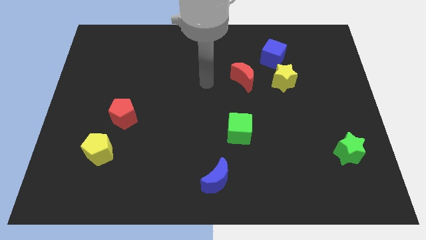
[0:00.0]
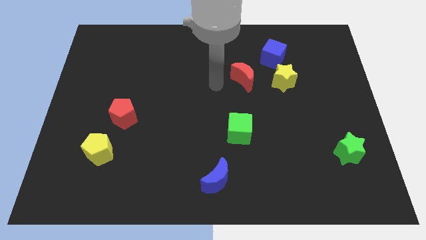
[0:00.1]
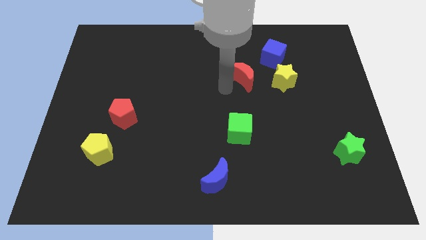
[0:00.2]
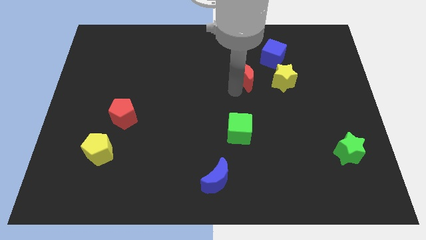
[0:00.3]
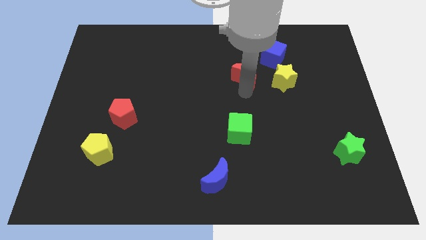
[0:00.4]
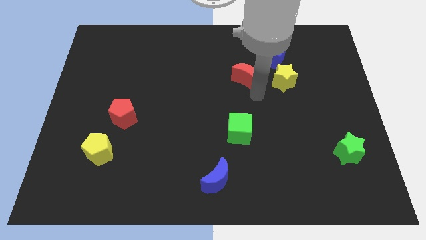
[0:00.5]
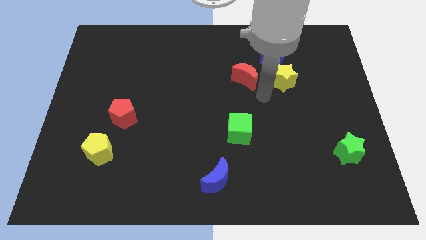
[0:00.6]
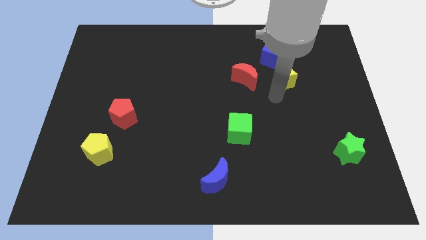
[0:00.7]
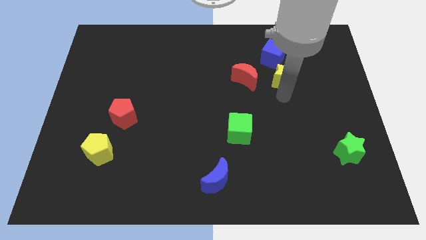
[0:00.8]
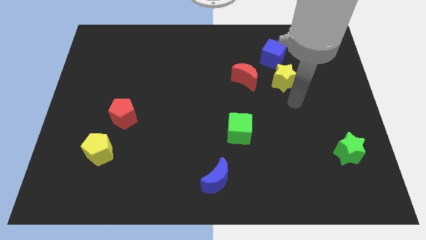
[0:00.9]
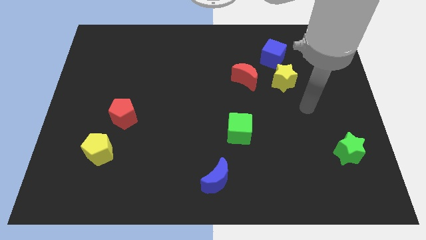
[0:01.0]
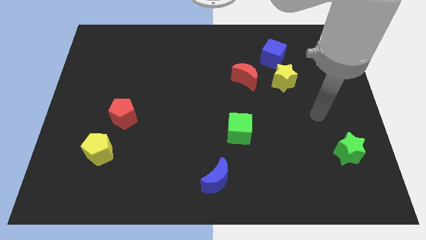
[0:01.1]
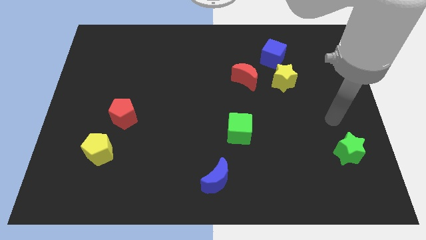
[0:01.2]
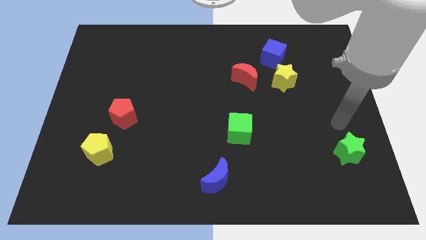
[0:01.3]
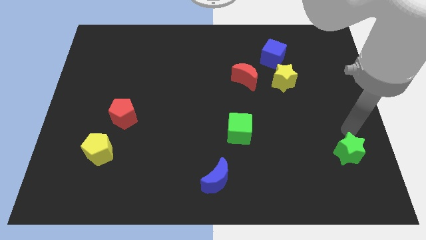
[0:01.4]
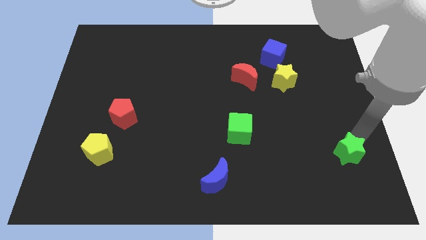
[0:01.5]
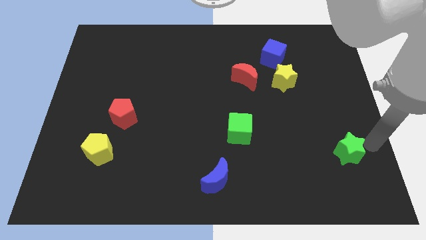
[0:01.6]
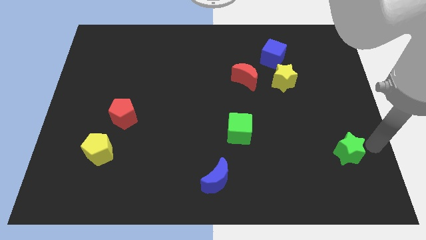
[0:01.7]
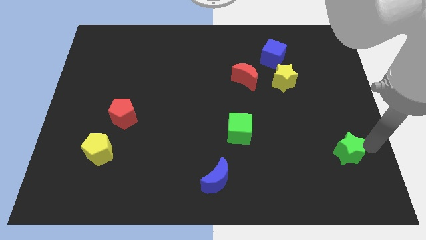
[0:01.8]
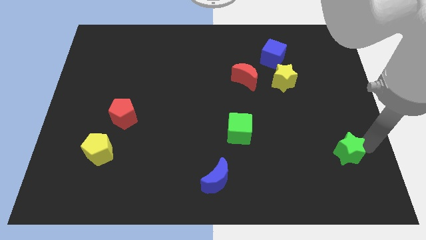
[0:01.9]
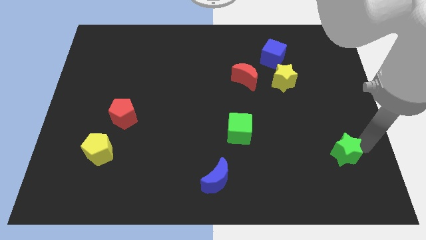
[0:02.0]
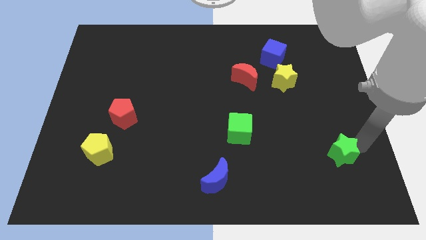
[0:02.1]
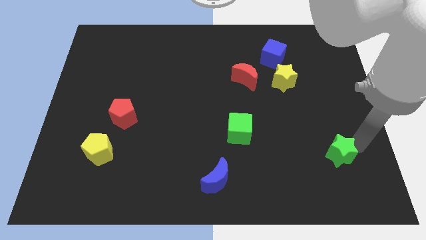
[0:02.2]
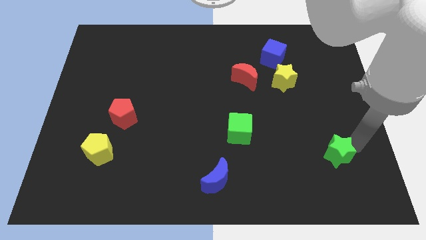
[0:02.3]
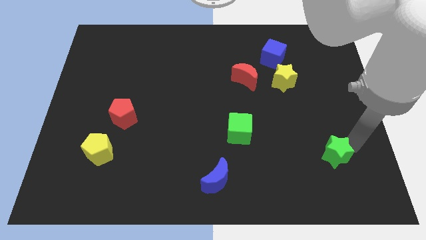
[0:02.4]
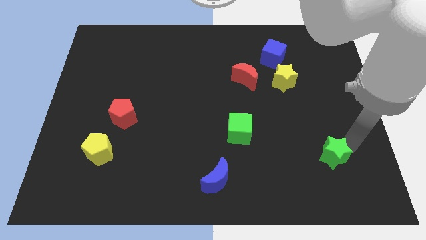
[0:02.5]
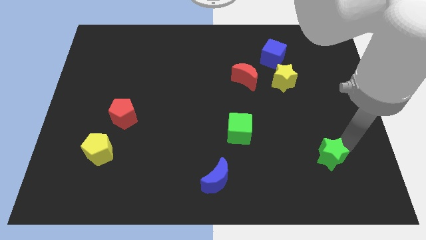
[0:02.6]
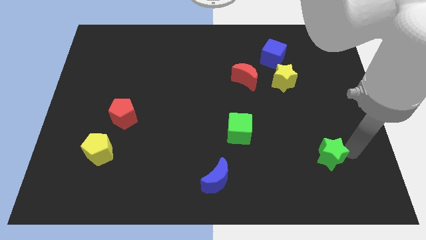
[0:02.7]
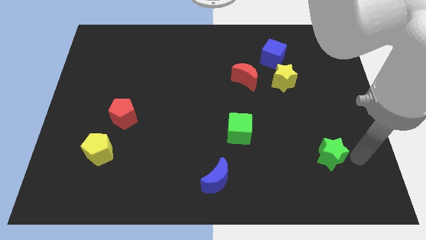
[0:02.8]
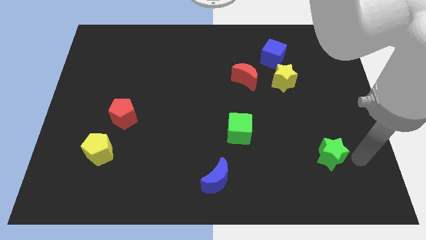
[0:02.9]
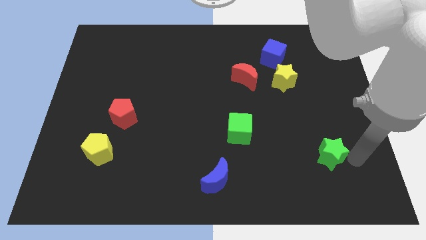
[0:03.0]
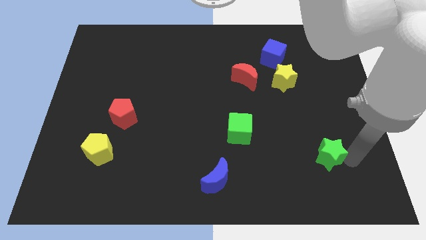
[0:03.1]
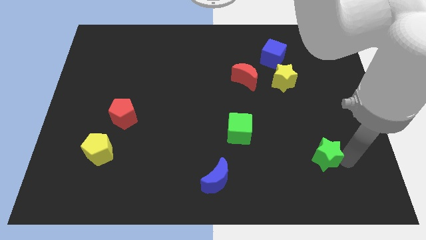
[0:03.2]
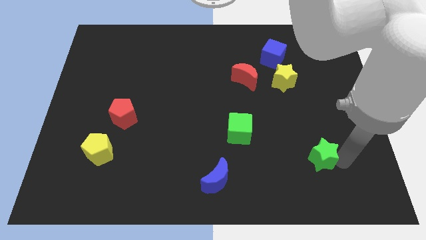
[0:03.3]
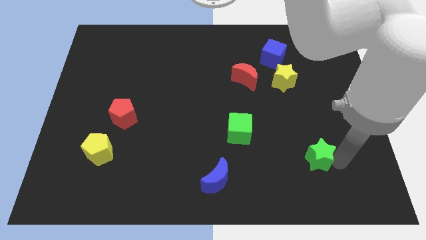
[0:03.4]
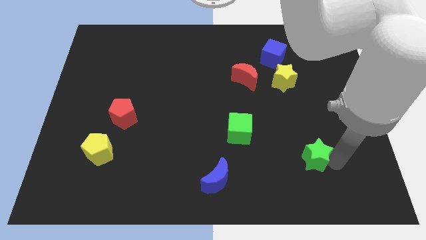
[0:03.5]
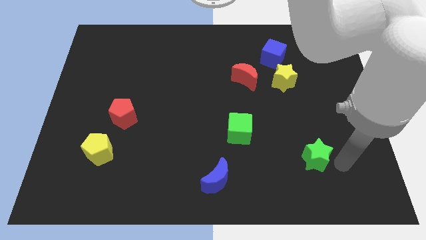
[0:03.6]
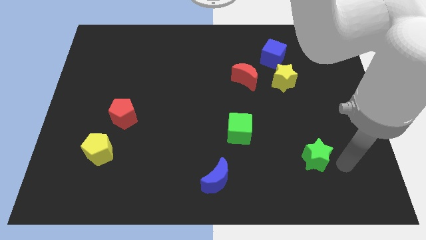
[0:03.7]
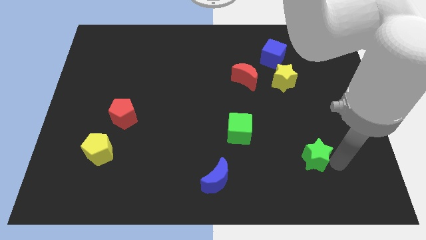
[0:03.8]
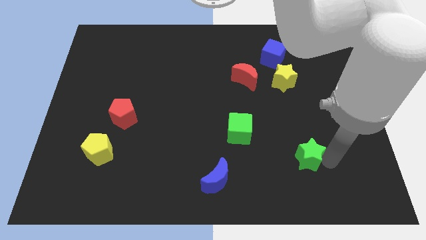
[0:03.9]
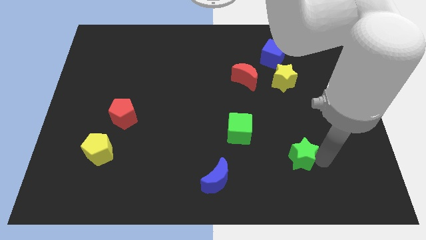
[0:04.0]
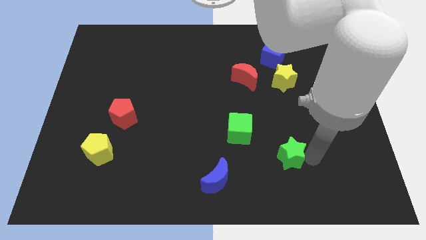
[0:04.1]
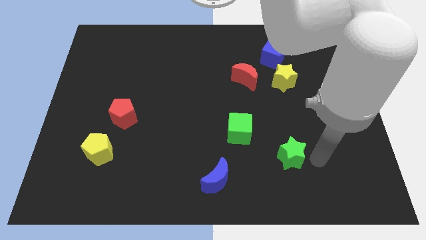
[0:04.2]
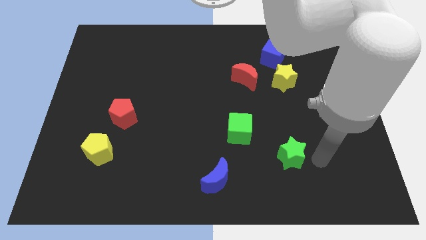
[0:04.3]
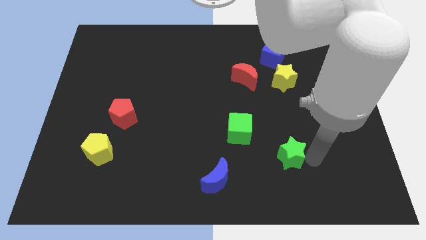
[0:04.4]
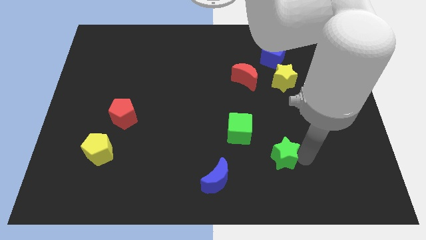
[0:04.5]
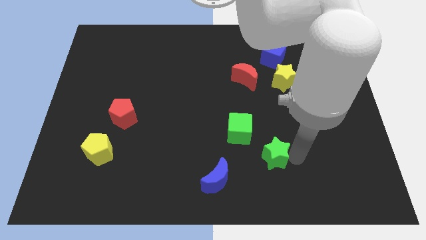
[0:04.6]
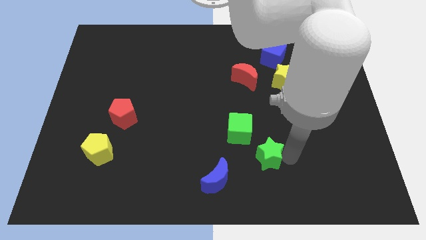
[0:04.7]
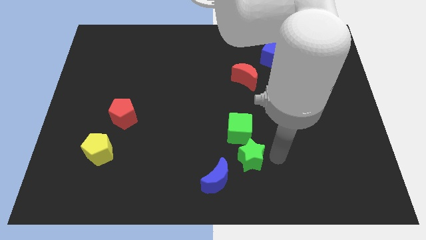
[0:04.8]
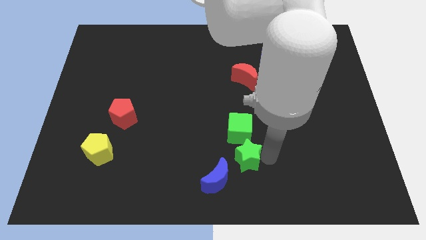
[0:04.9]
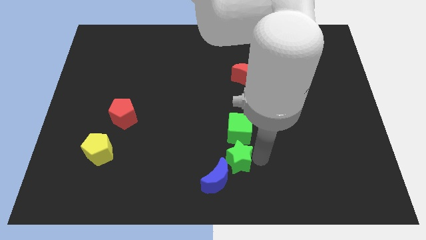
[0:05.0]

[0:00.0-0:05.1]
slide the green star diagonally down and to the left of the green cube

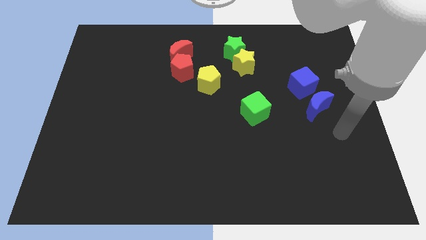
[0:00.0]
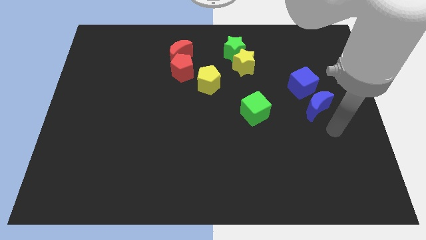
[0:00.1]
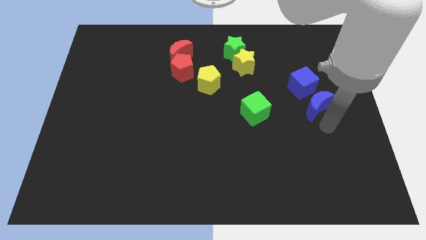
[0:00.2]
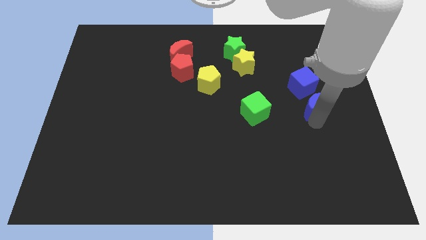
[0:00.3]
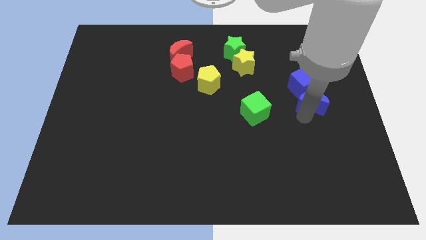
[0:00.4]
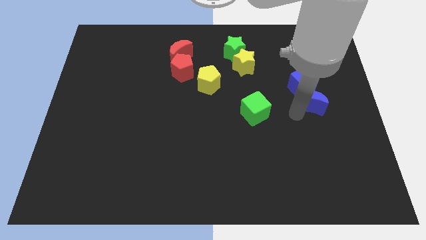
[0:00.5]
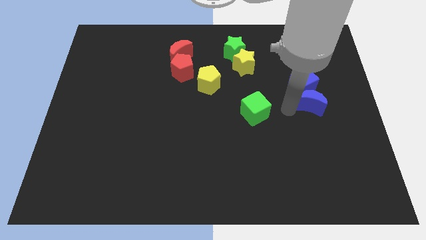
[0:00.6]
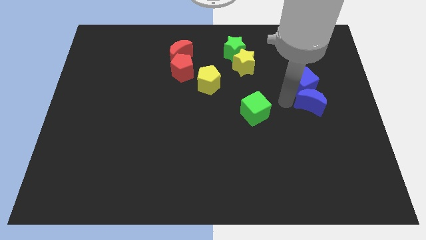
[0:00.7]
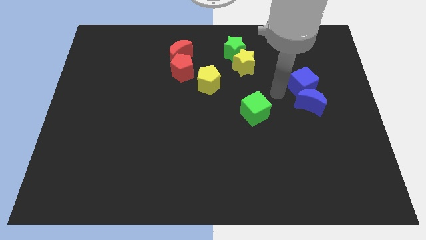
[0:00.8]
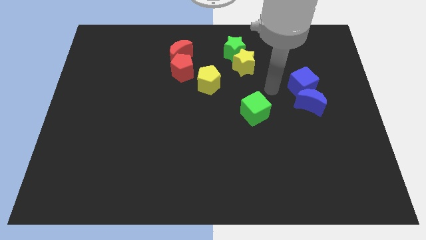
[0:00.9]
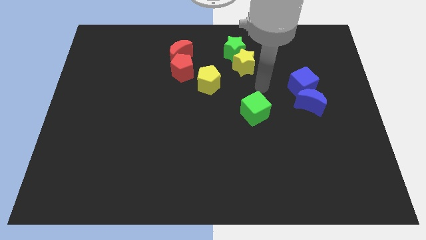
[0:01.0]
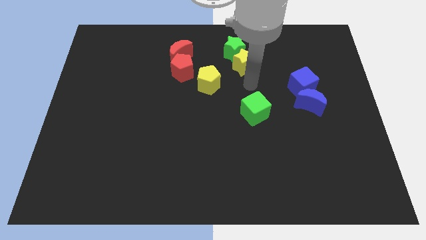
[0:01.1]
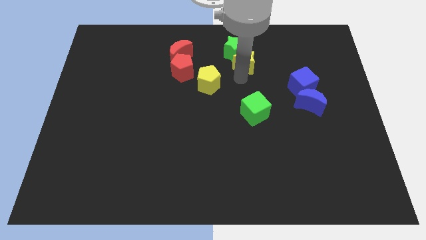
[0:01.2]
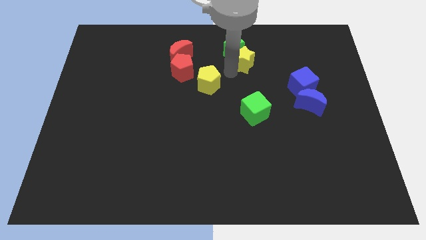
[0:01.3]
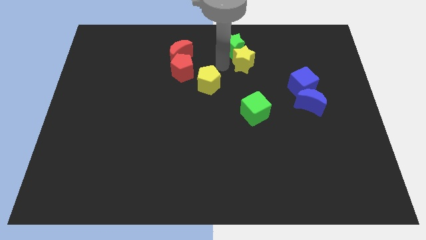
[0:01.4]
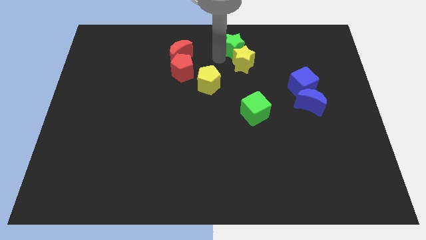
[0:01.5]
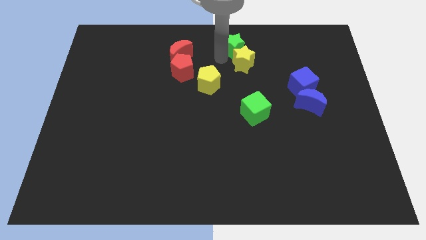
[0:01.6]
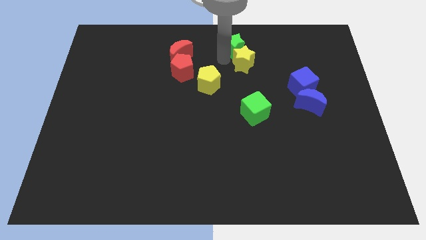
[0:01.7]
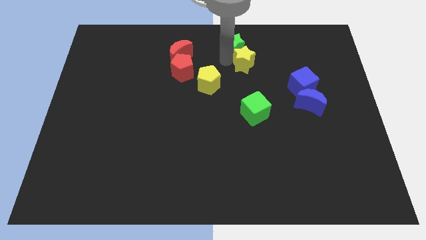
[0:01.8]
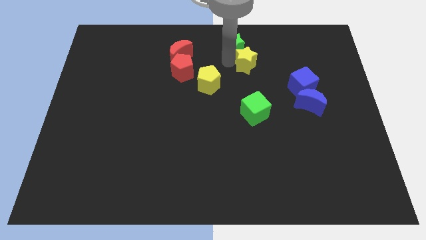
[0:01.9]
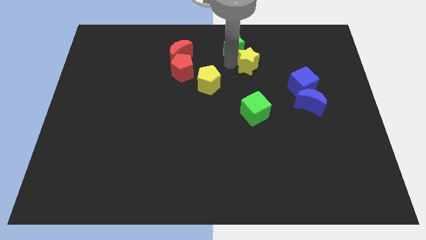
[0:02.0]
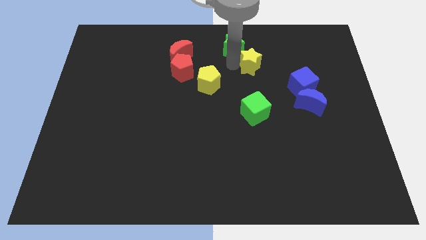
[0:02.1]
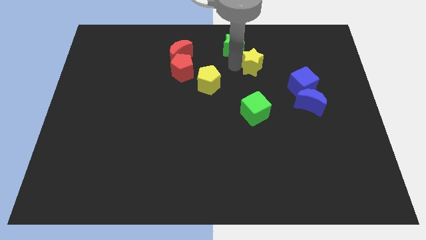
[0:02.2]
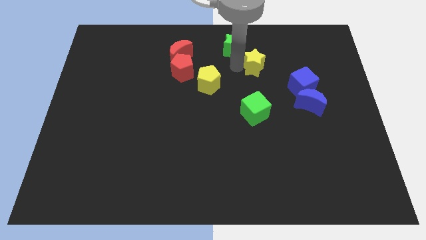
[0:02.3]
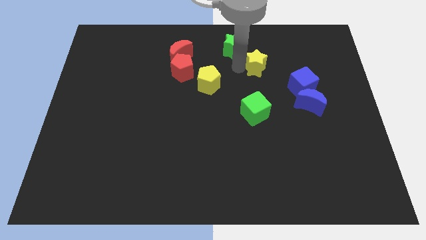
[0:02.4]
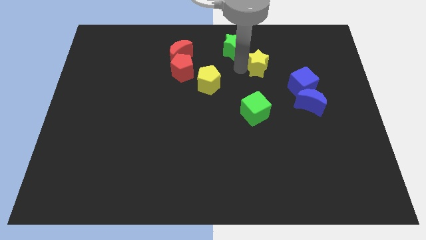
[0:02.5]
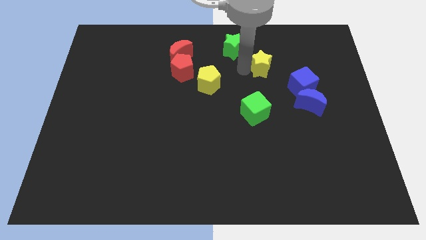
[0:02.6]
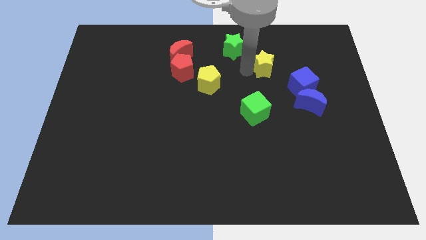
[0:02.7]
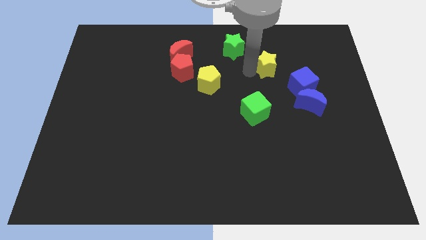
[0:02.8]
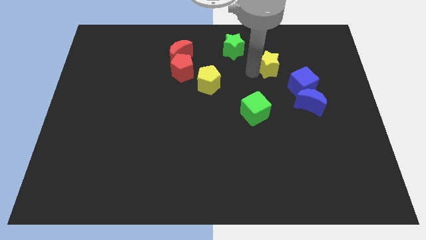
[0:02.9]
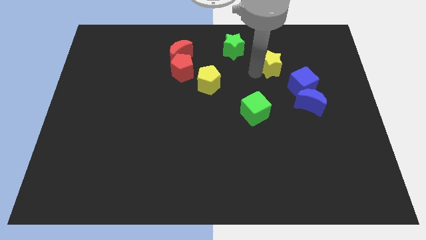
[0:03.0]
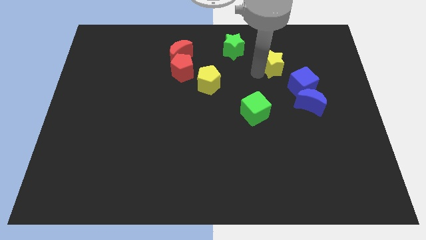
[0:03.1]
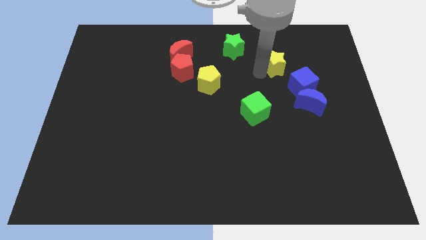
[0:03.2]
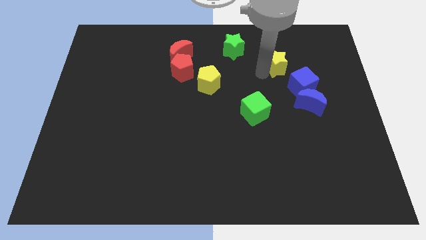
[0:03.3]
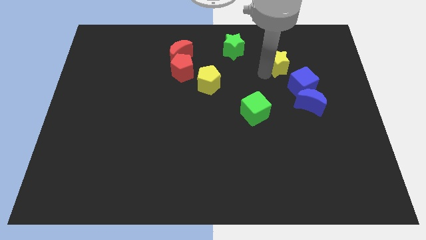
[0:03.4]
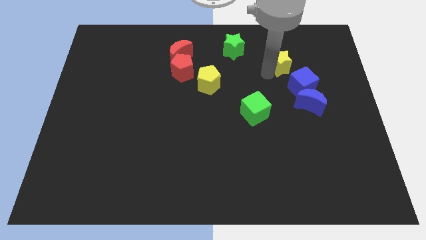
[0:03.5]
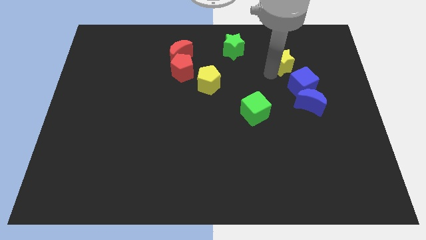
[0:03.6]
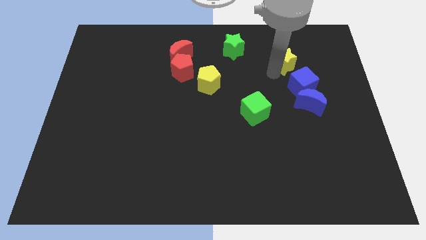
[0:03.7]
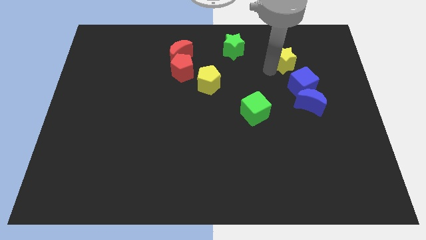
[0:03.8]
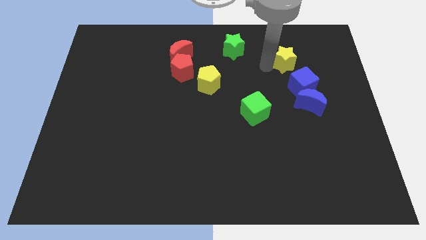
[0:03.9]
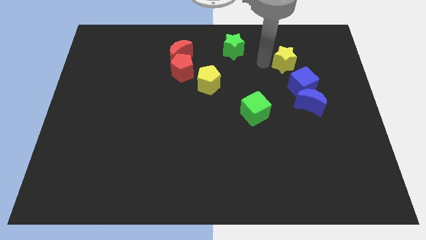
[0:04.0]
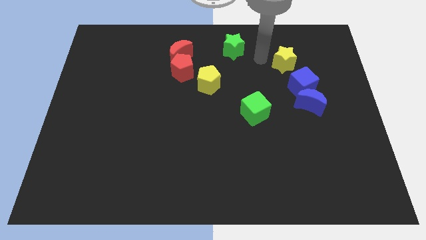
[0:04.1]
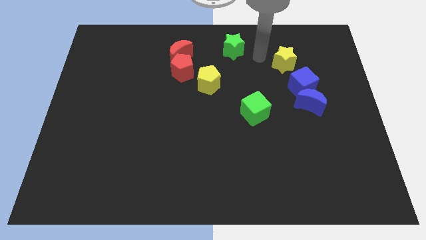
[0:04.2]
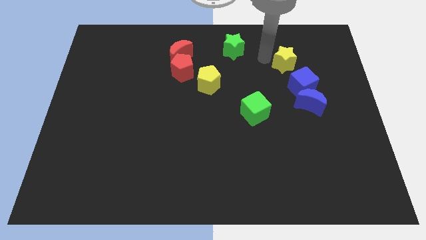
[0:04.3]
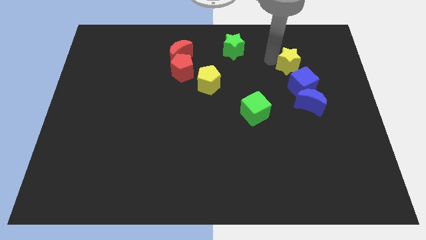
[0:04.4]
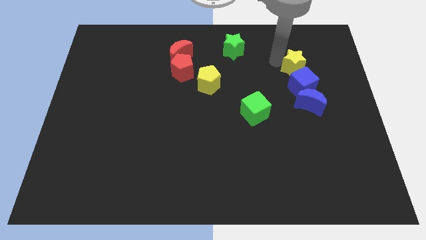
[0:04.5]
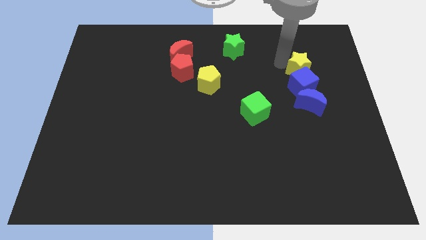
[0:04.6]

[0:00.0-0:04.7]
push the yellow star to the top right of the blue cube
